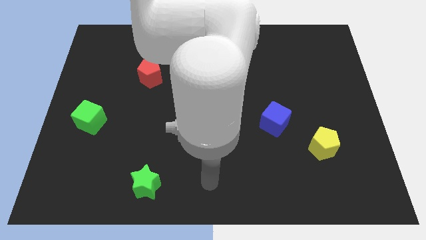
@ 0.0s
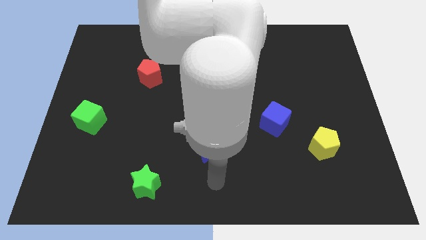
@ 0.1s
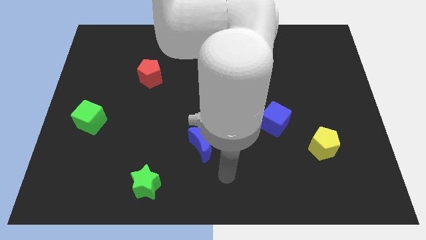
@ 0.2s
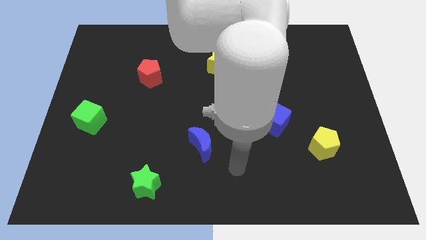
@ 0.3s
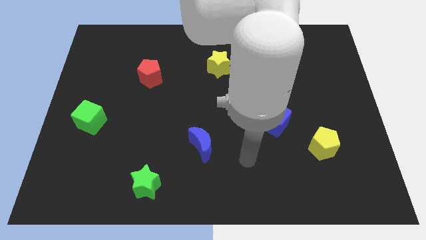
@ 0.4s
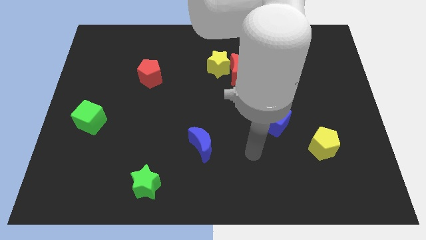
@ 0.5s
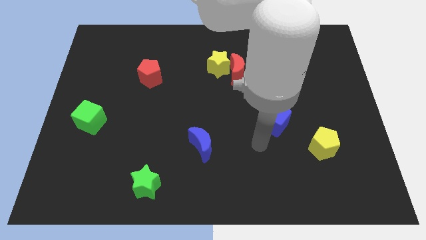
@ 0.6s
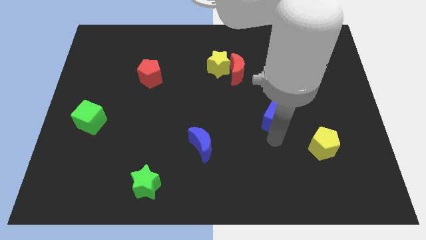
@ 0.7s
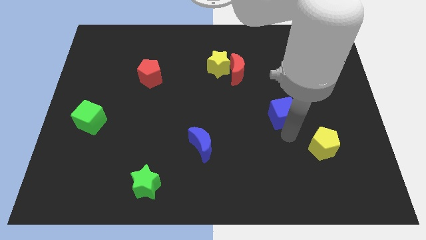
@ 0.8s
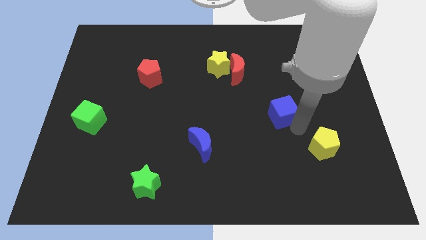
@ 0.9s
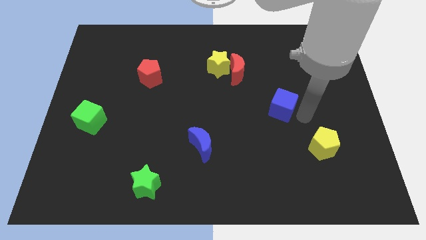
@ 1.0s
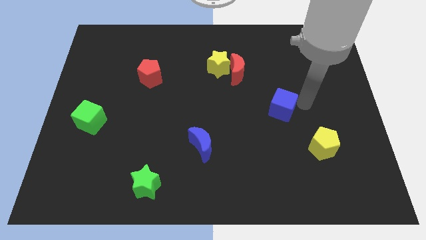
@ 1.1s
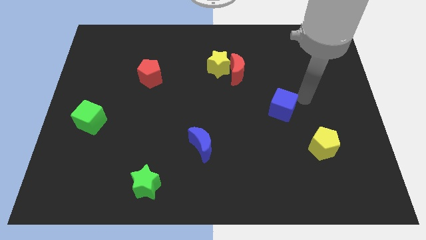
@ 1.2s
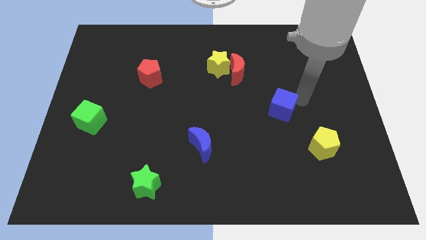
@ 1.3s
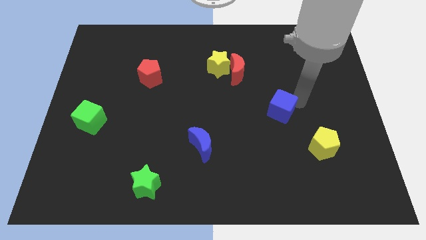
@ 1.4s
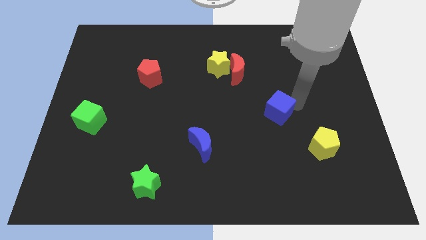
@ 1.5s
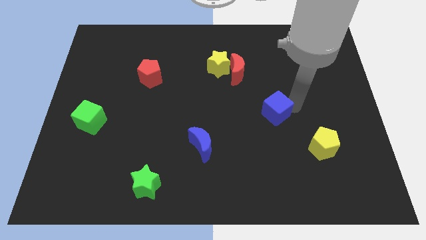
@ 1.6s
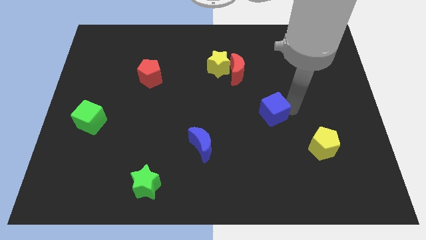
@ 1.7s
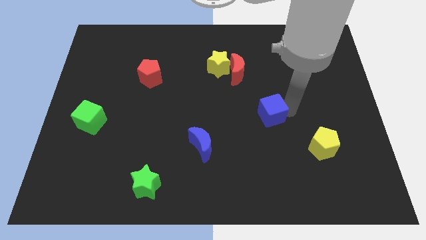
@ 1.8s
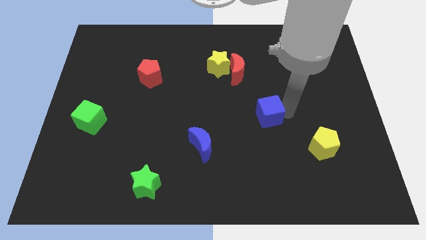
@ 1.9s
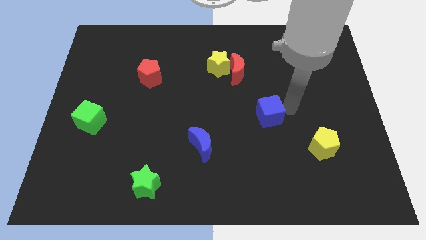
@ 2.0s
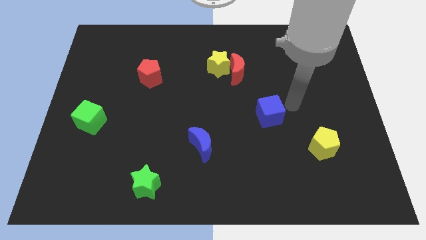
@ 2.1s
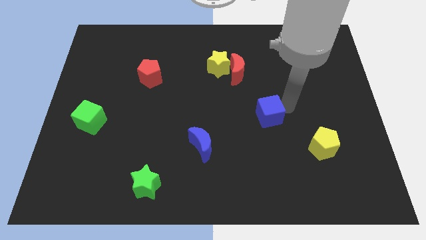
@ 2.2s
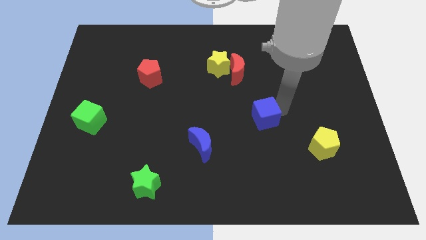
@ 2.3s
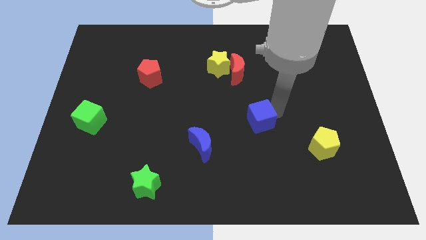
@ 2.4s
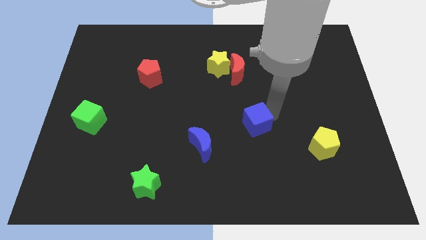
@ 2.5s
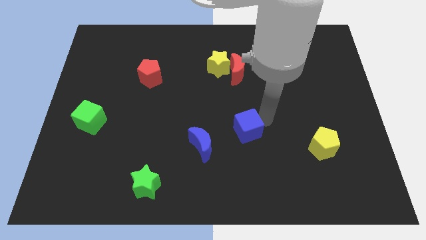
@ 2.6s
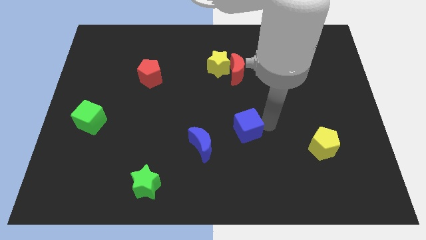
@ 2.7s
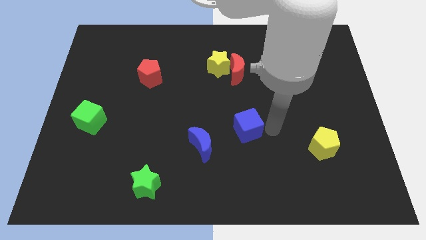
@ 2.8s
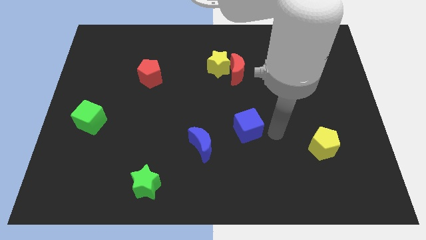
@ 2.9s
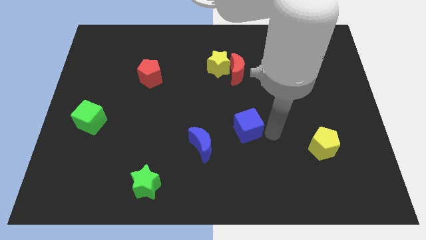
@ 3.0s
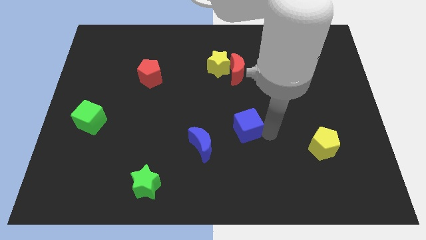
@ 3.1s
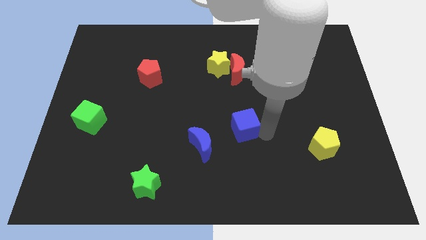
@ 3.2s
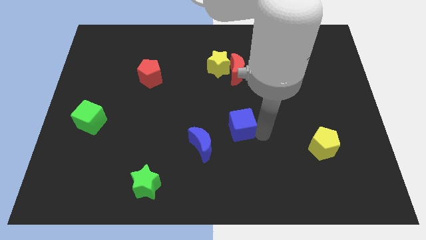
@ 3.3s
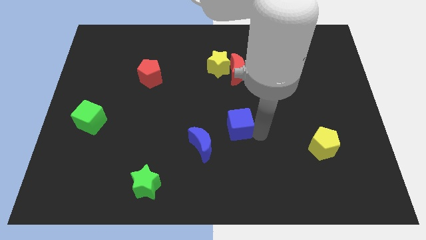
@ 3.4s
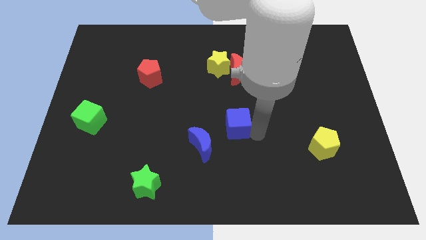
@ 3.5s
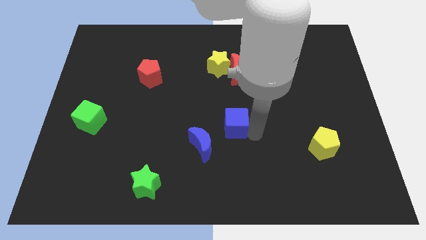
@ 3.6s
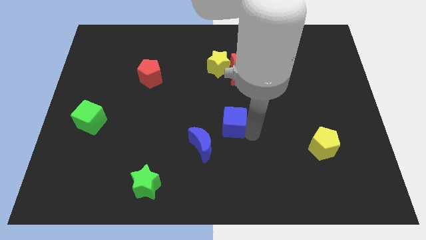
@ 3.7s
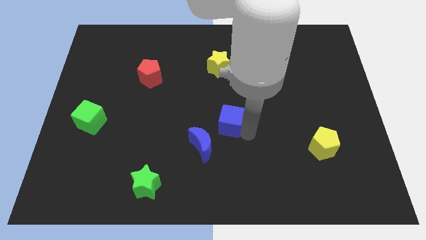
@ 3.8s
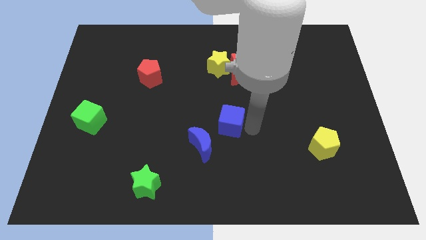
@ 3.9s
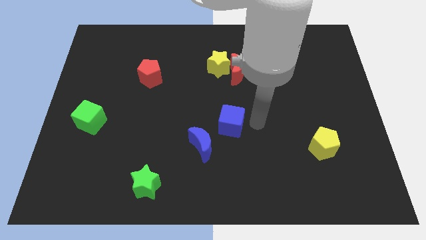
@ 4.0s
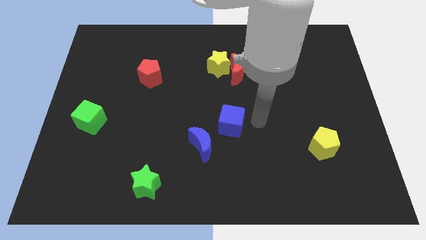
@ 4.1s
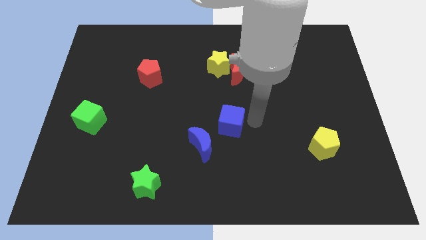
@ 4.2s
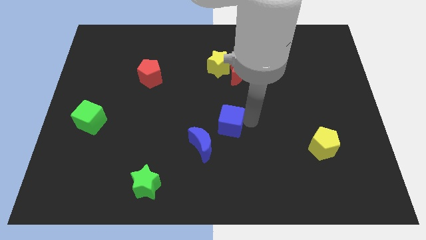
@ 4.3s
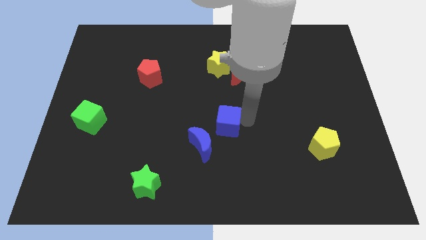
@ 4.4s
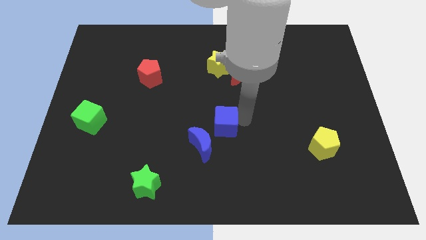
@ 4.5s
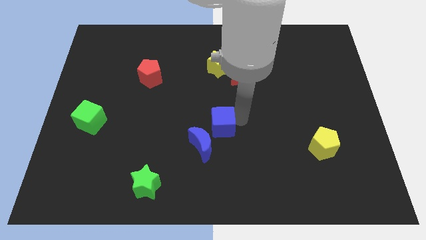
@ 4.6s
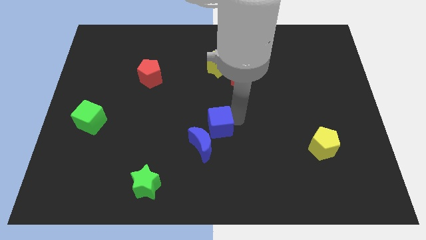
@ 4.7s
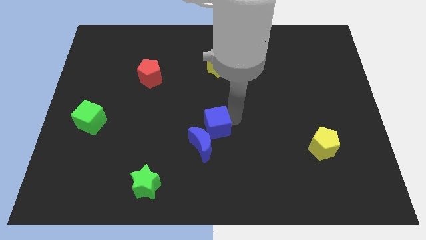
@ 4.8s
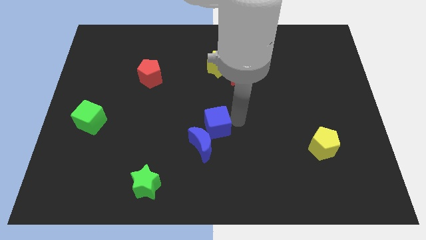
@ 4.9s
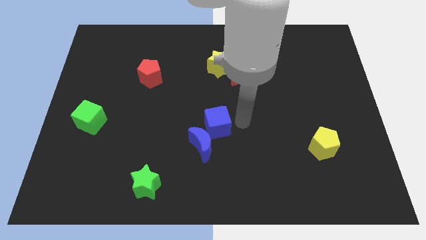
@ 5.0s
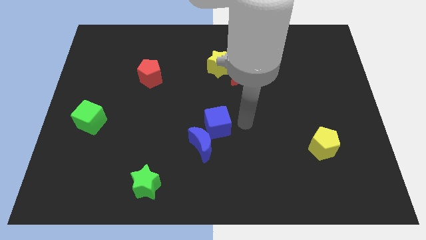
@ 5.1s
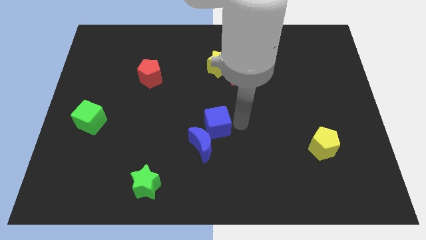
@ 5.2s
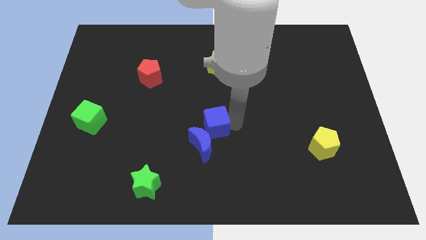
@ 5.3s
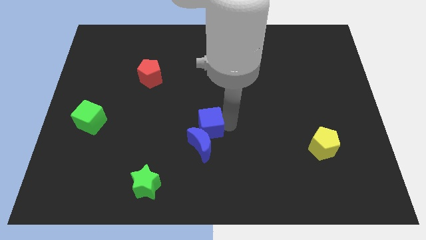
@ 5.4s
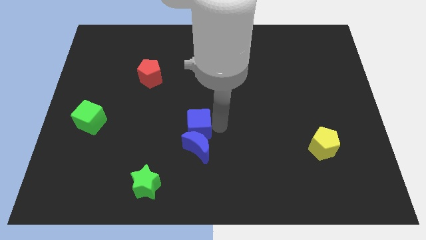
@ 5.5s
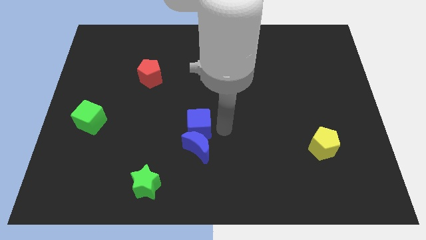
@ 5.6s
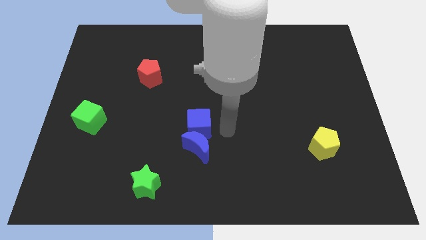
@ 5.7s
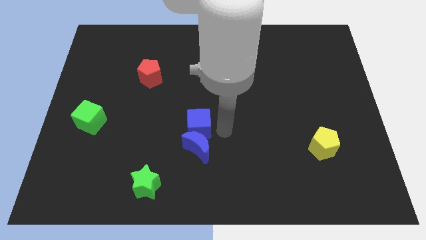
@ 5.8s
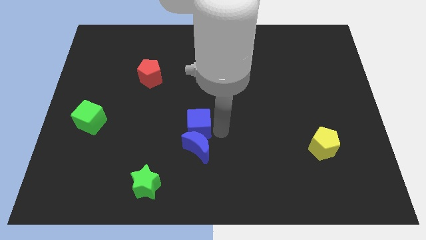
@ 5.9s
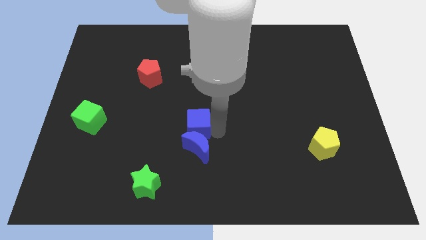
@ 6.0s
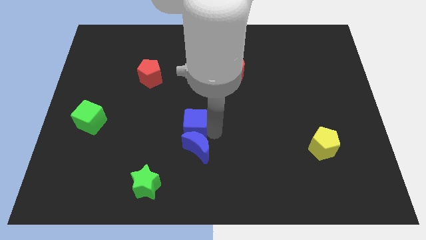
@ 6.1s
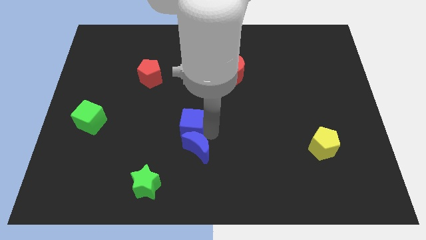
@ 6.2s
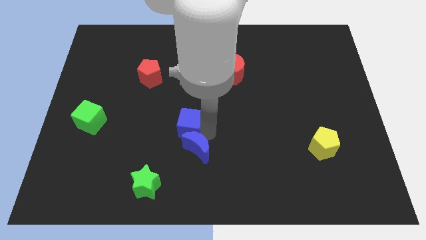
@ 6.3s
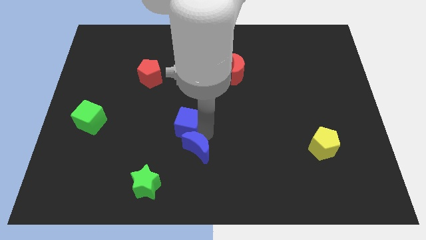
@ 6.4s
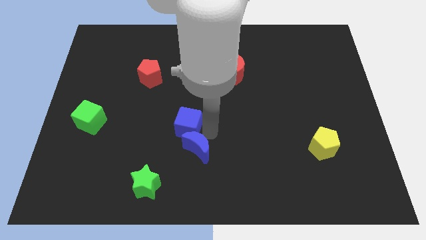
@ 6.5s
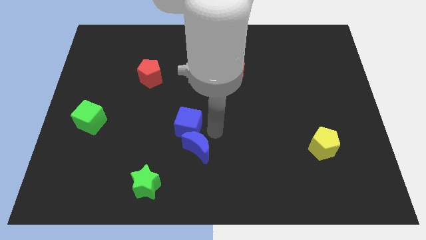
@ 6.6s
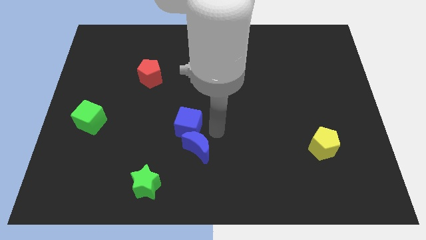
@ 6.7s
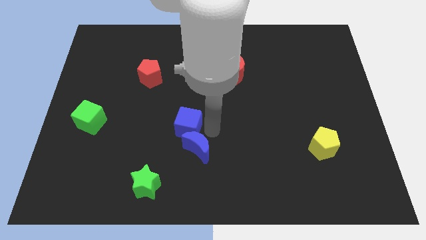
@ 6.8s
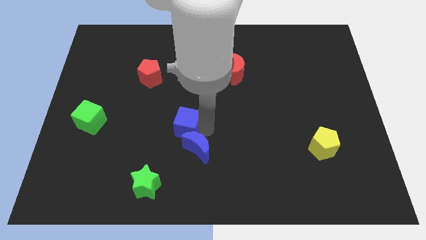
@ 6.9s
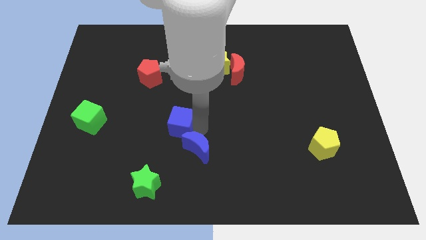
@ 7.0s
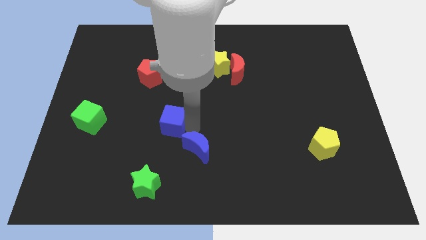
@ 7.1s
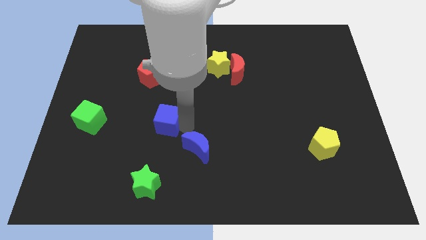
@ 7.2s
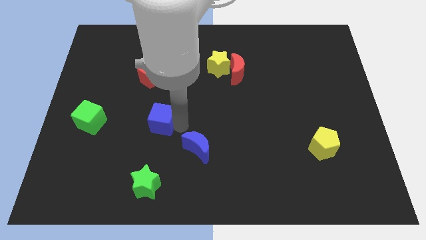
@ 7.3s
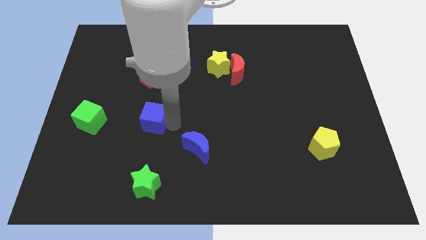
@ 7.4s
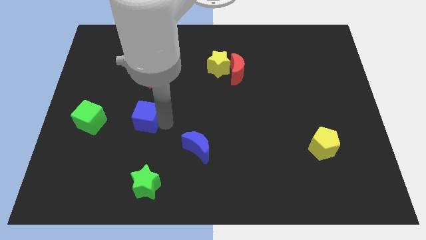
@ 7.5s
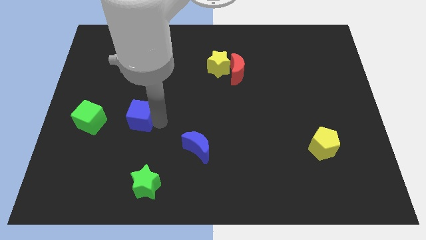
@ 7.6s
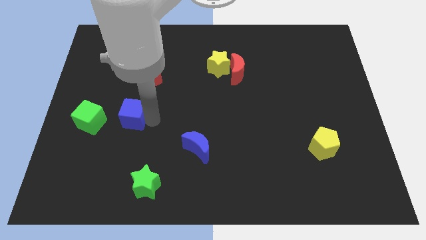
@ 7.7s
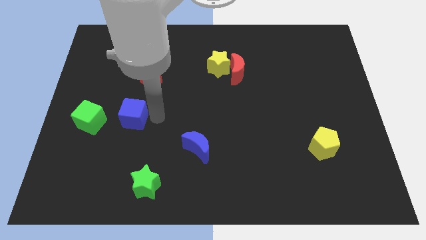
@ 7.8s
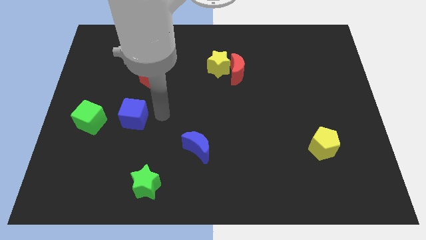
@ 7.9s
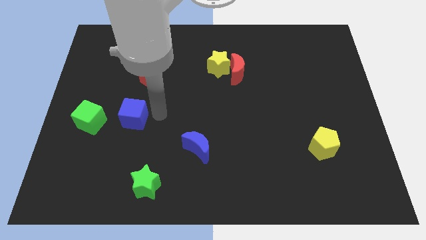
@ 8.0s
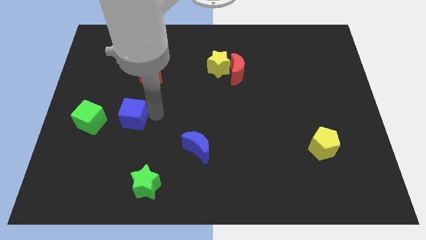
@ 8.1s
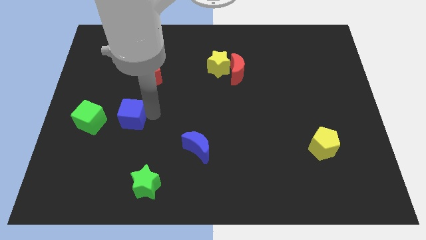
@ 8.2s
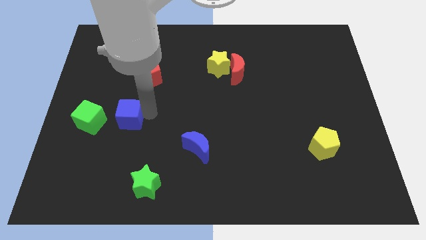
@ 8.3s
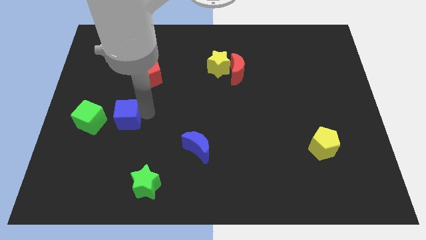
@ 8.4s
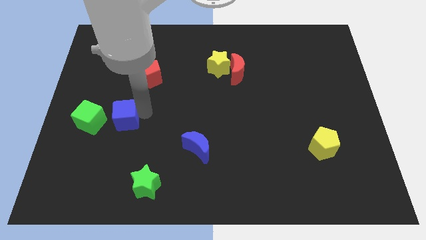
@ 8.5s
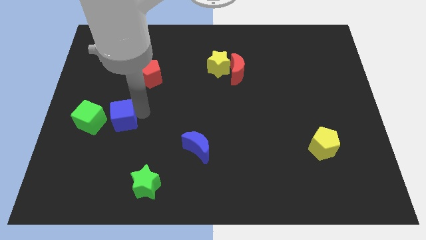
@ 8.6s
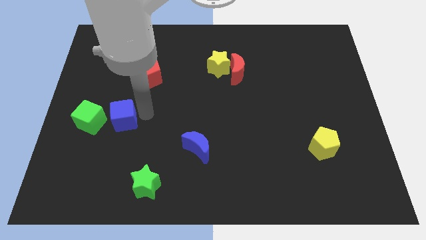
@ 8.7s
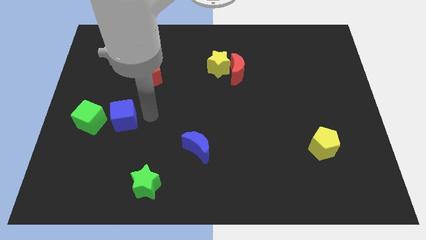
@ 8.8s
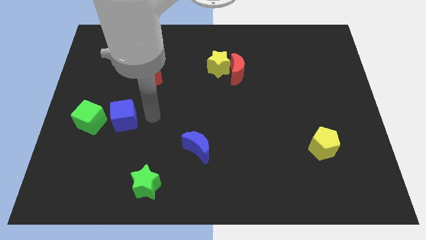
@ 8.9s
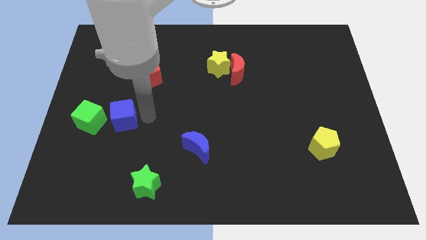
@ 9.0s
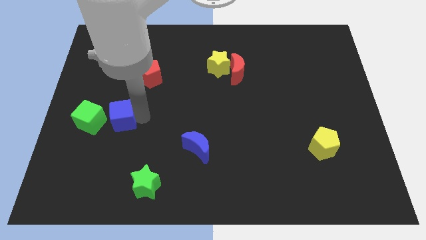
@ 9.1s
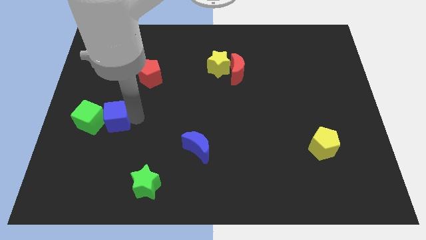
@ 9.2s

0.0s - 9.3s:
move the blue cube to the green cube
